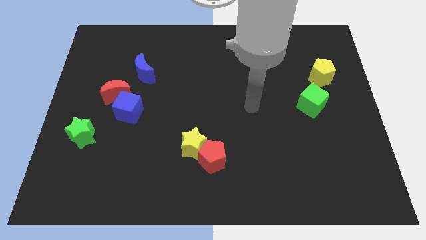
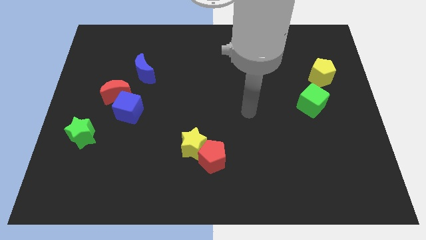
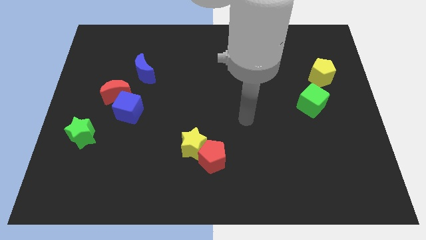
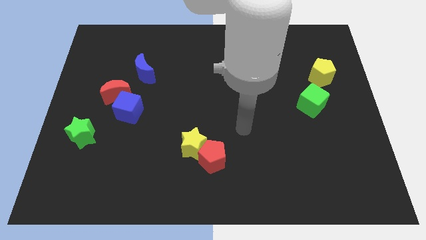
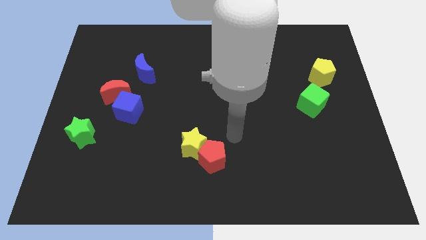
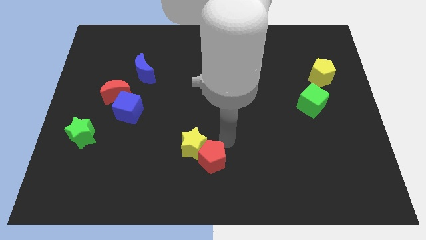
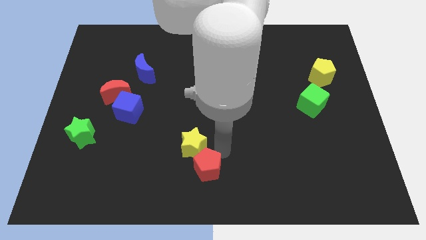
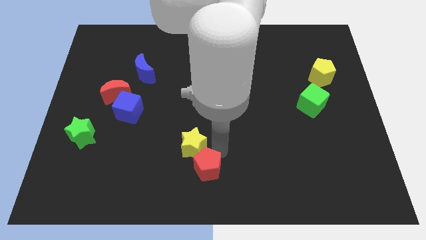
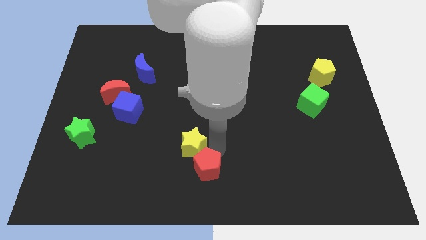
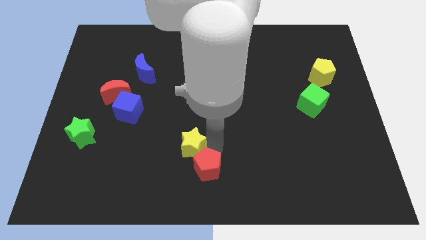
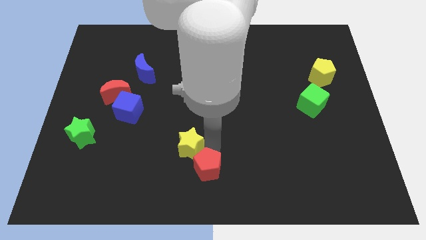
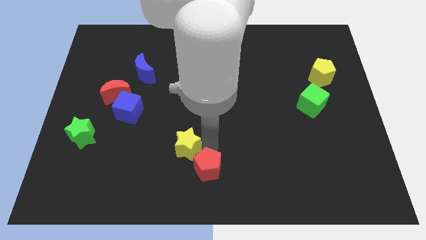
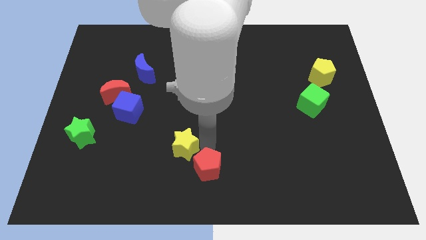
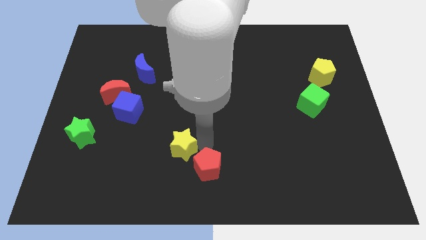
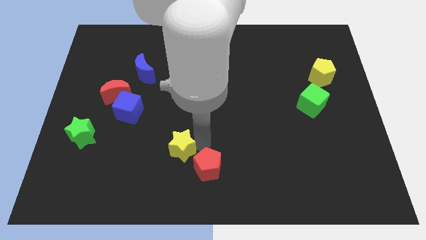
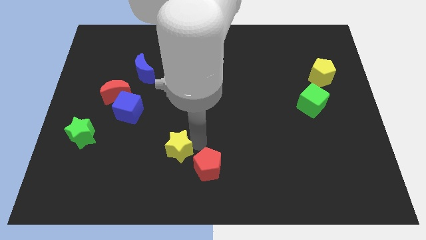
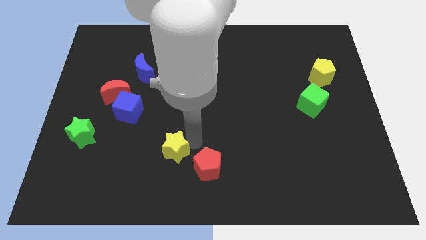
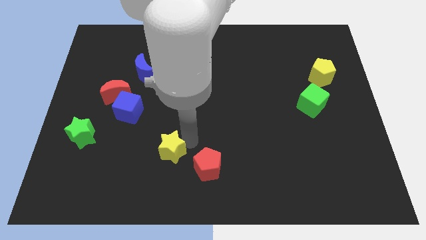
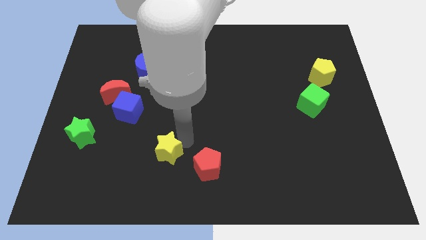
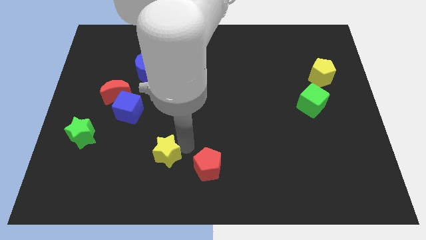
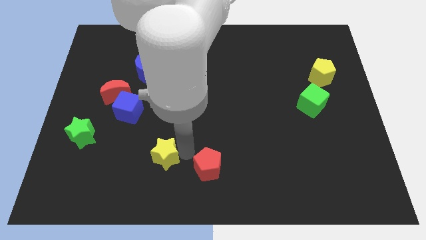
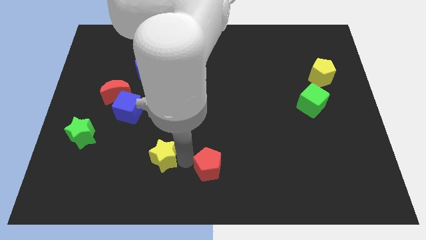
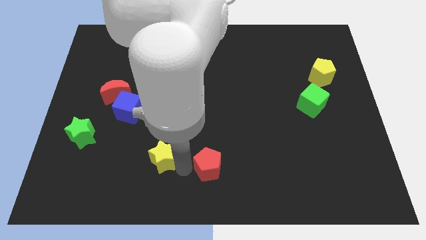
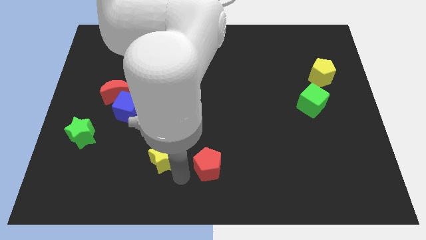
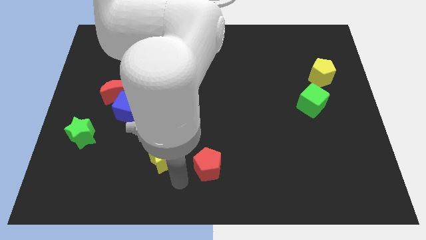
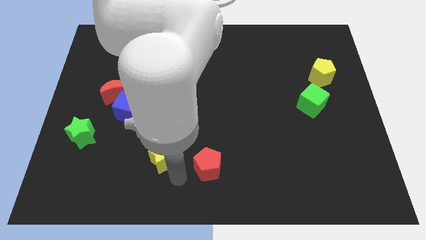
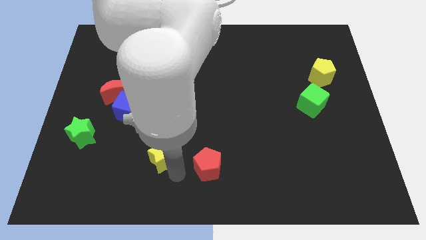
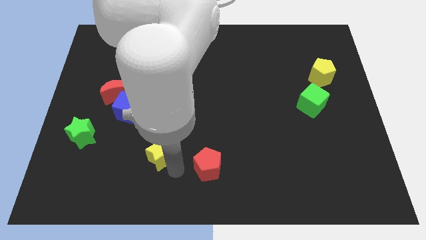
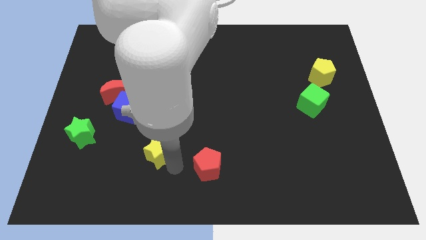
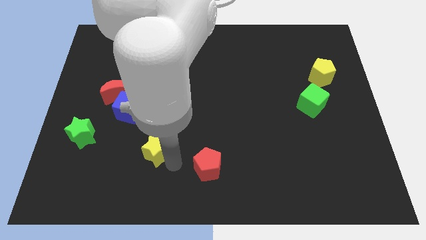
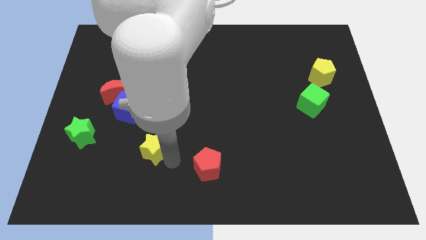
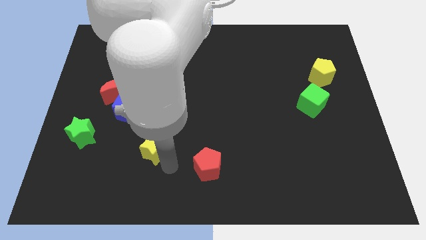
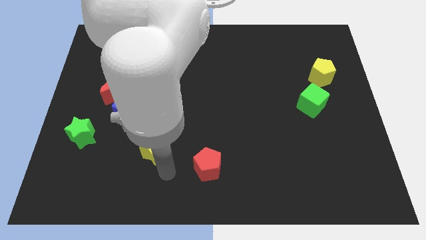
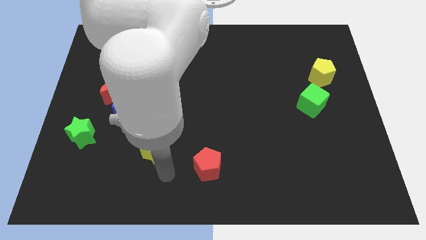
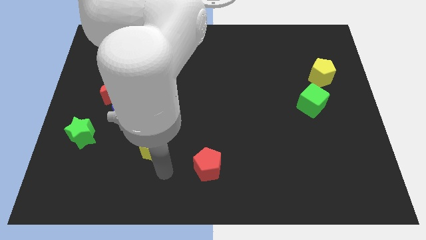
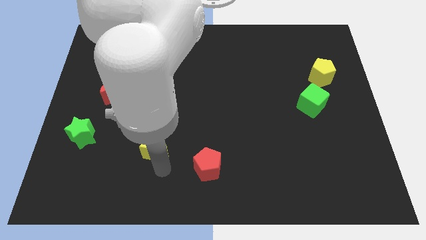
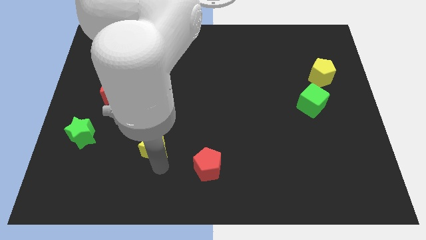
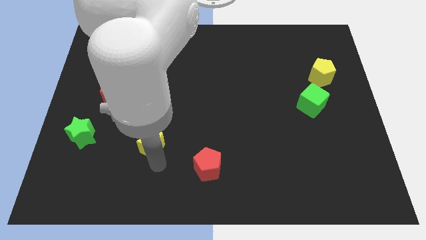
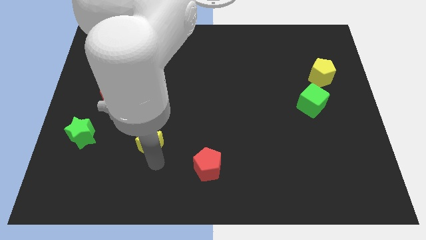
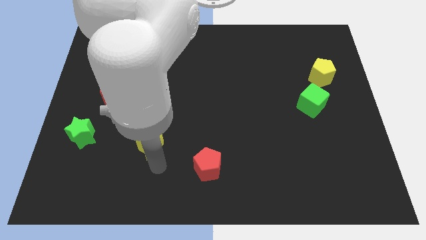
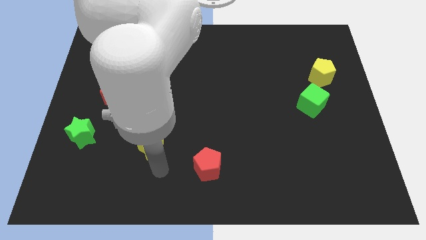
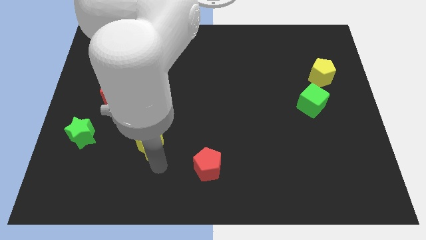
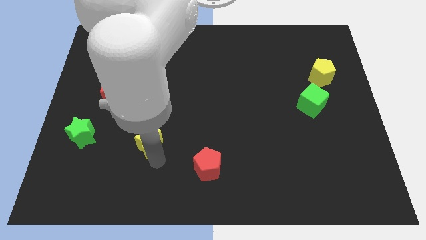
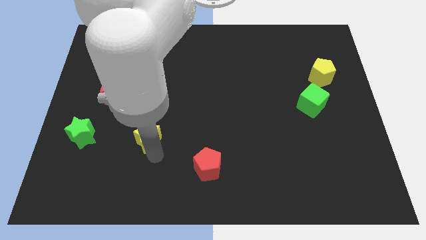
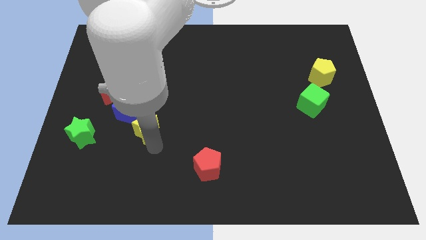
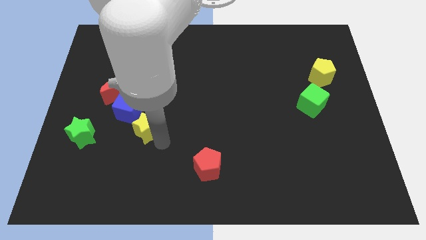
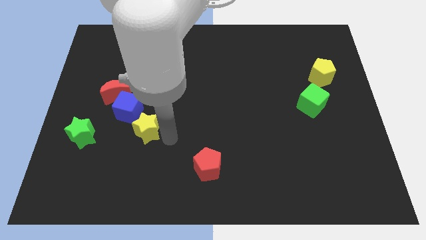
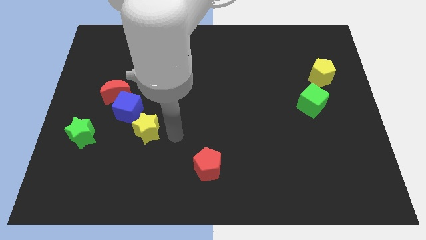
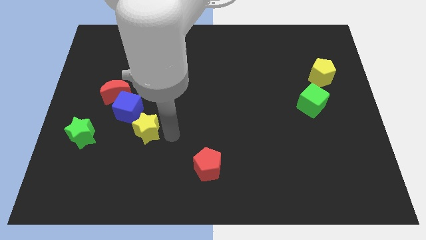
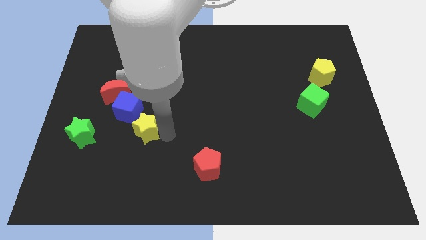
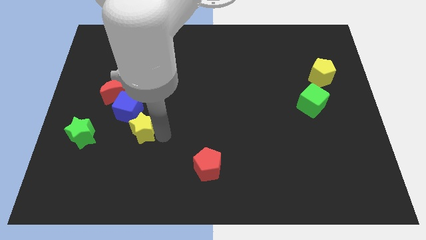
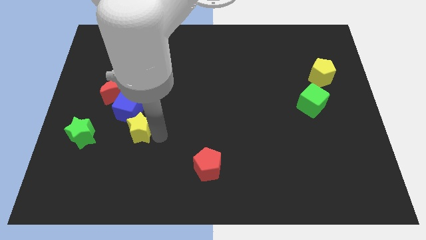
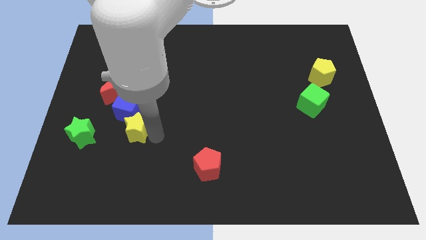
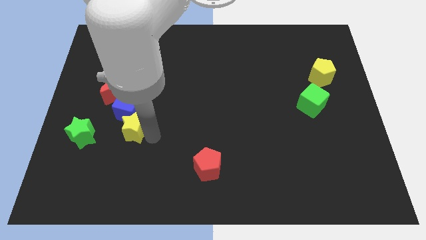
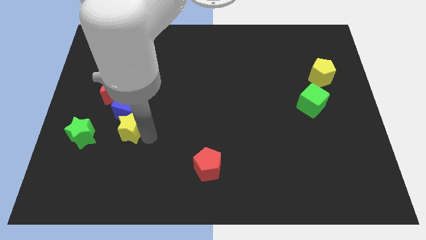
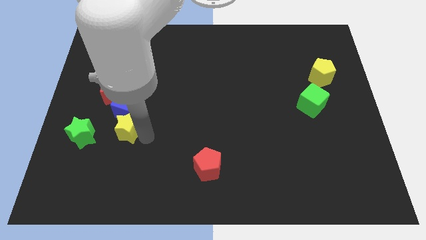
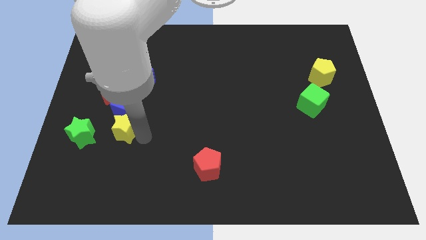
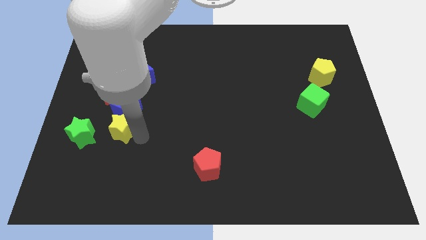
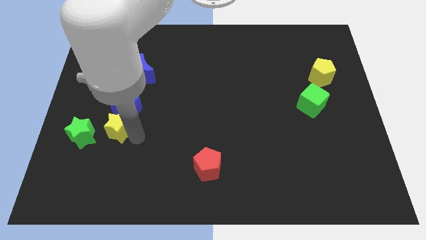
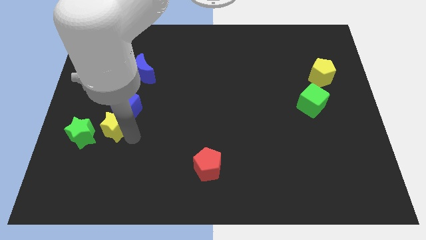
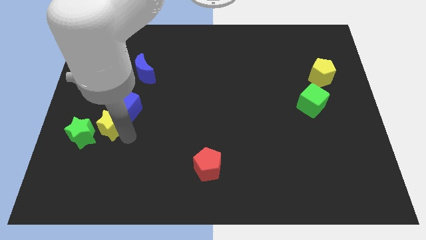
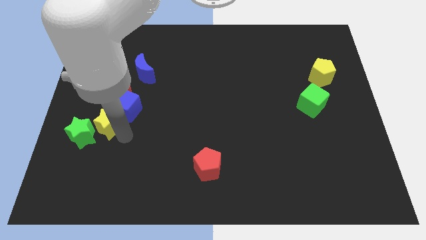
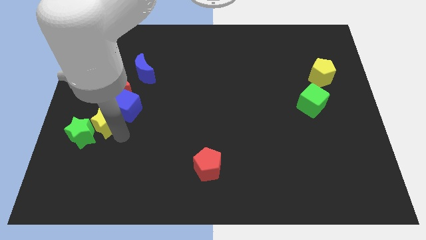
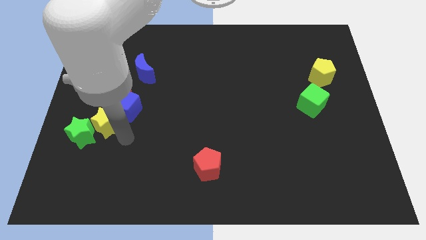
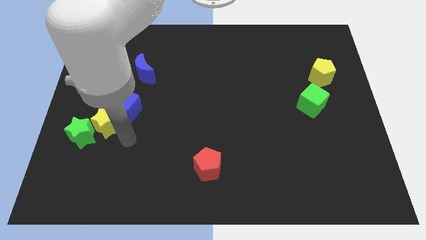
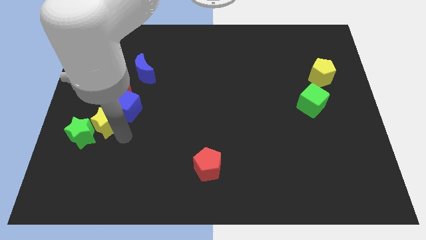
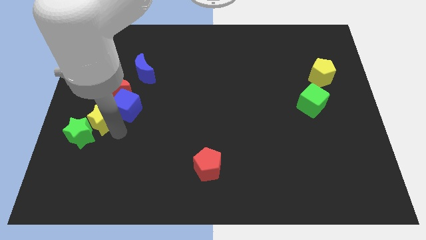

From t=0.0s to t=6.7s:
slide the yellow star diagonally down and to the left of the red moon

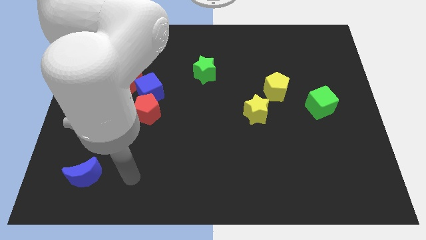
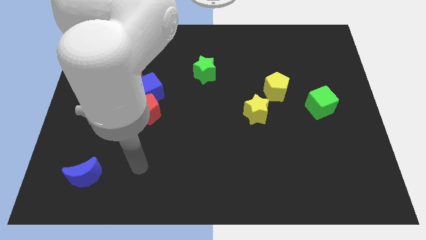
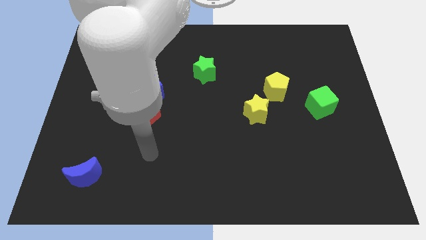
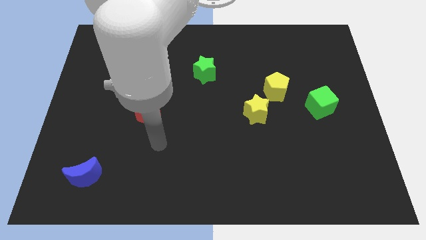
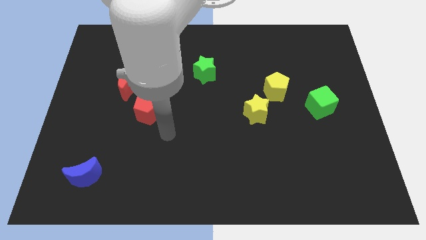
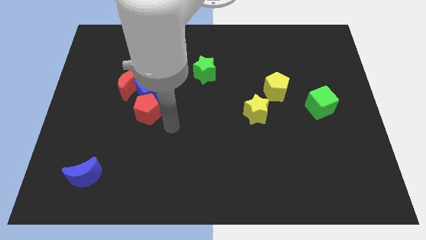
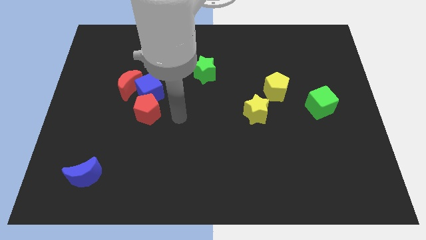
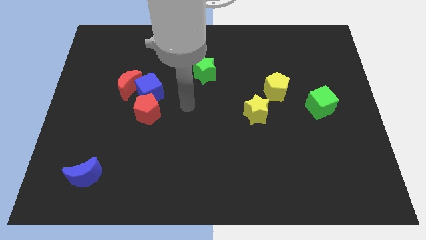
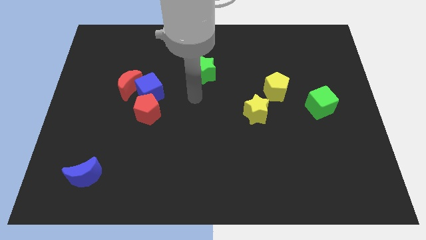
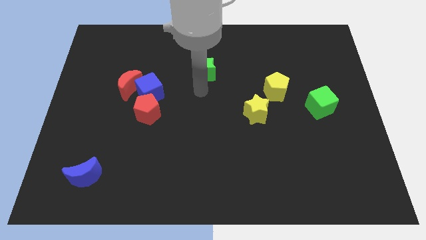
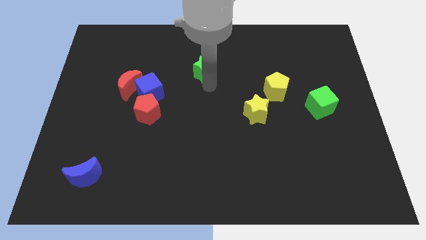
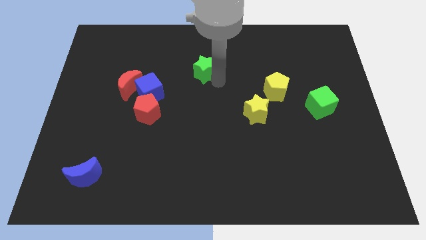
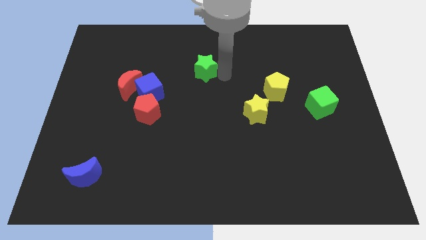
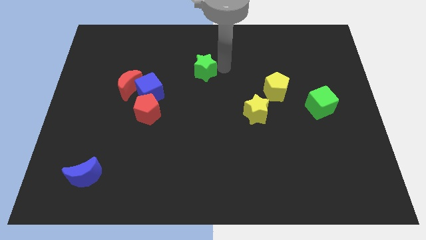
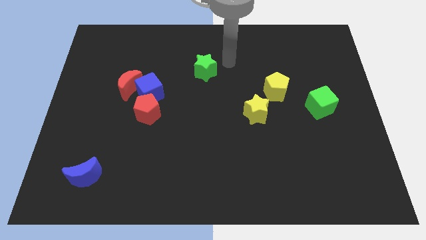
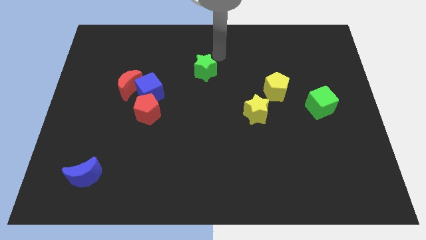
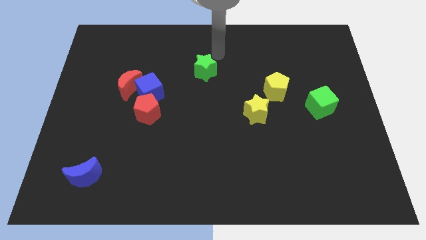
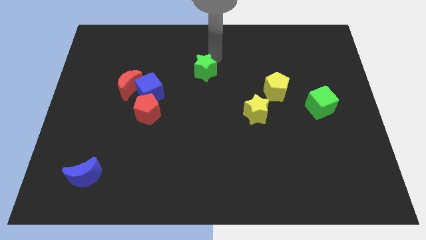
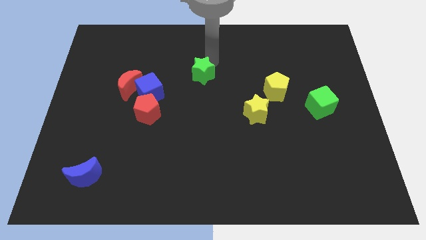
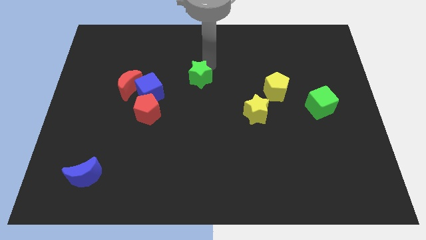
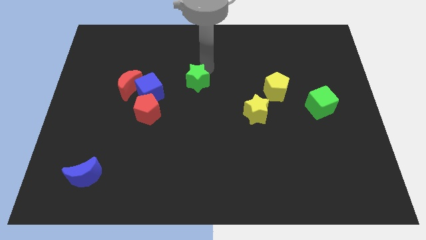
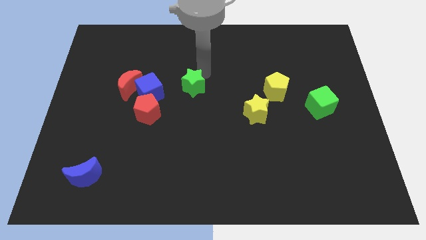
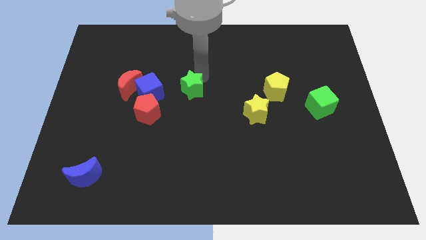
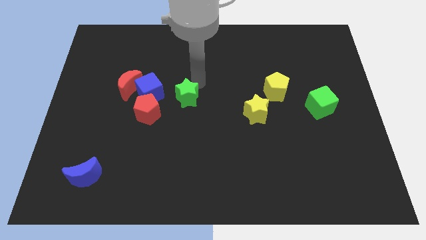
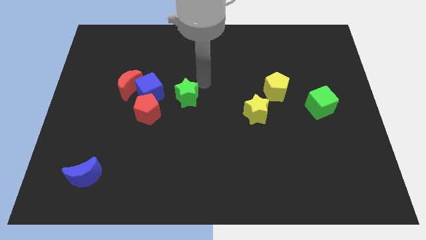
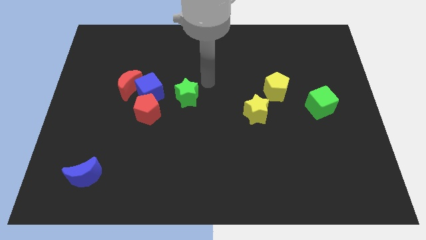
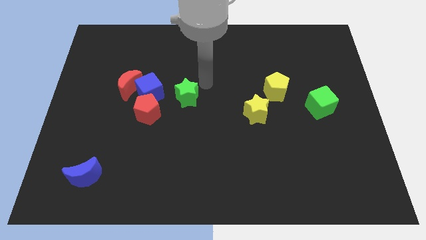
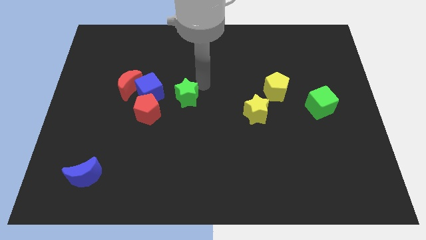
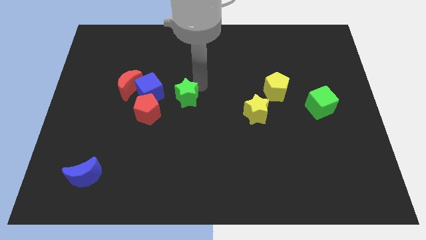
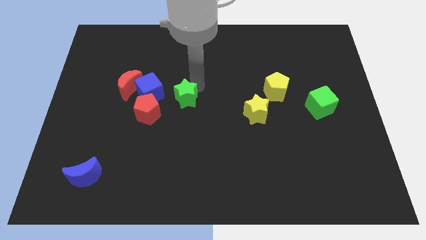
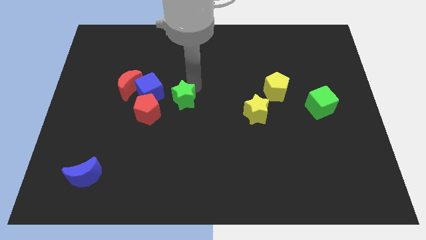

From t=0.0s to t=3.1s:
move the green star to the bottom right side of the blue cube
